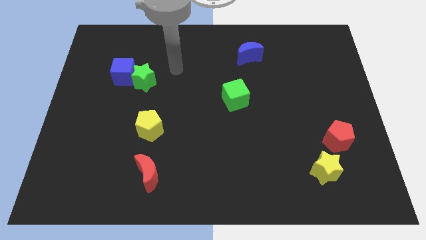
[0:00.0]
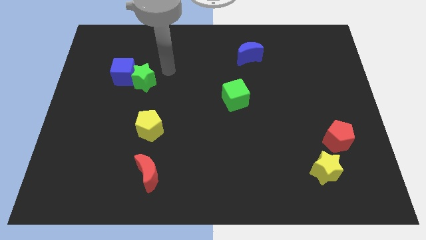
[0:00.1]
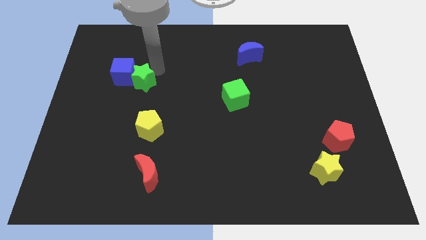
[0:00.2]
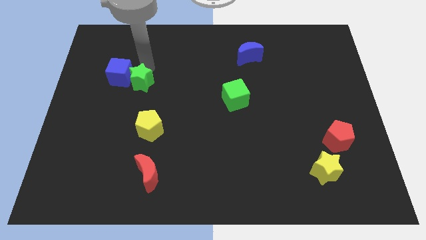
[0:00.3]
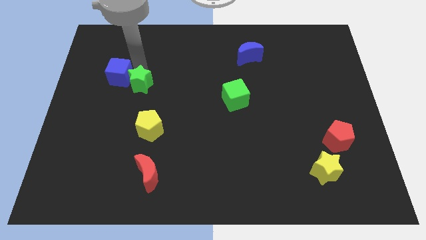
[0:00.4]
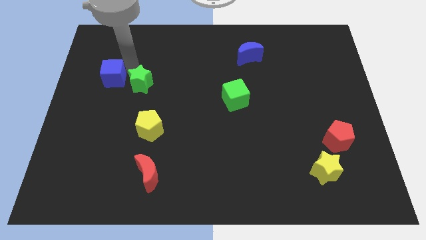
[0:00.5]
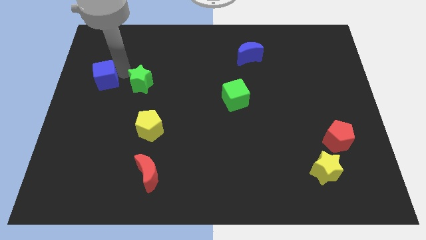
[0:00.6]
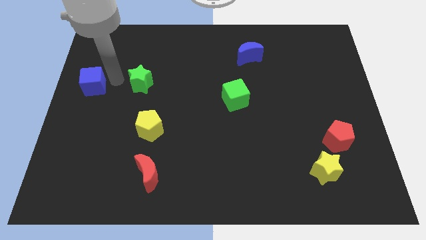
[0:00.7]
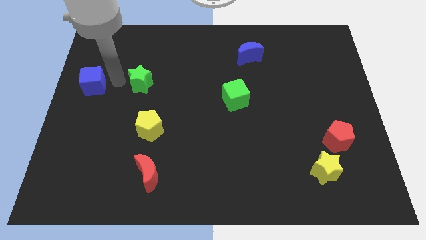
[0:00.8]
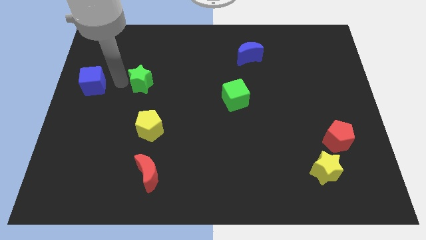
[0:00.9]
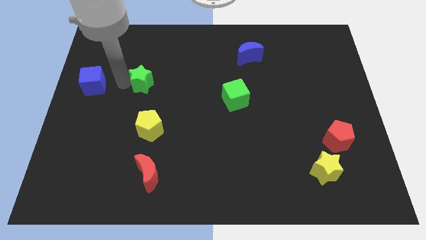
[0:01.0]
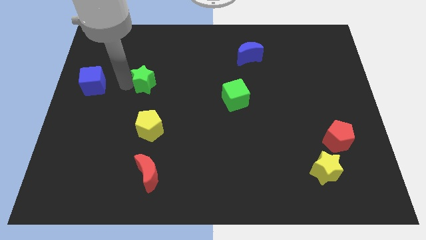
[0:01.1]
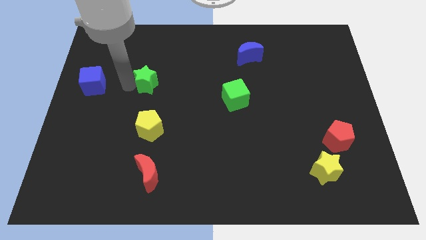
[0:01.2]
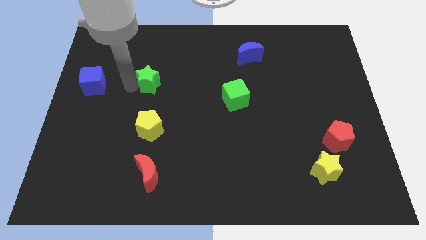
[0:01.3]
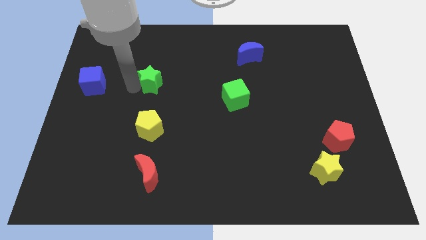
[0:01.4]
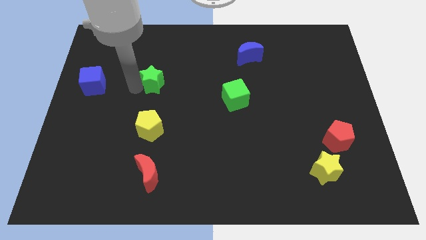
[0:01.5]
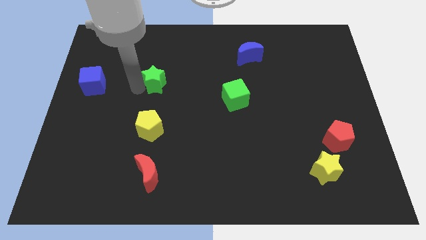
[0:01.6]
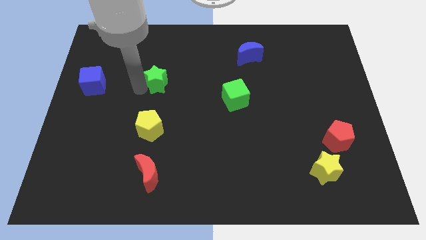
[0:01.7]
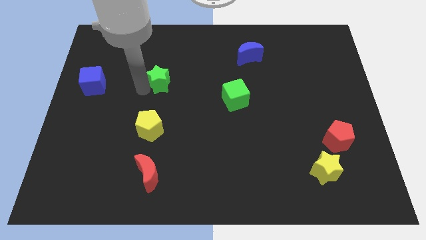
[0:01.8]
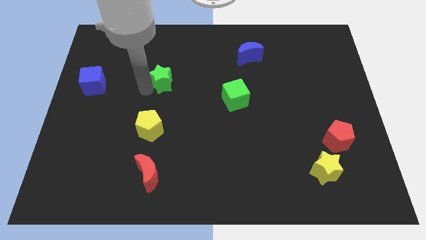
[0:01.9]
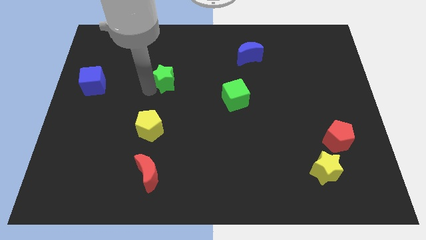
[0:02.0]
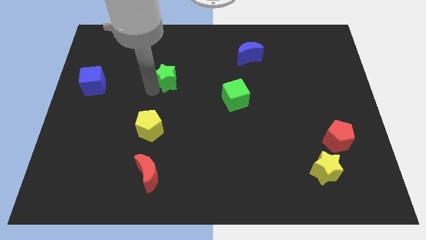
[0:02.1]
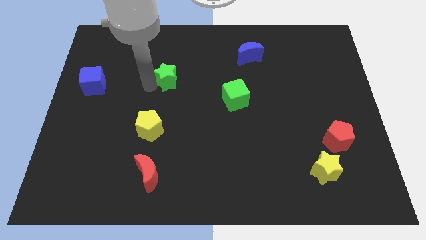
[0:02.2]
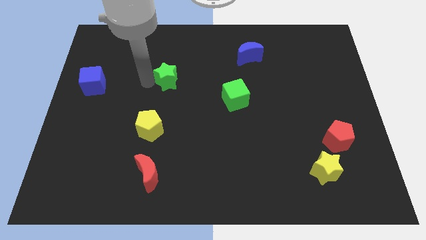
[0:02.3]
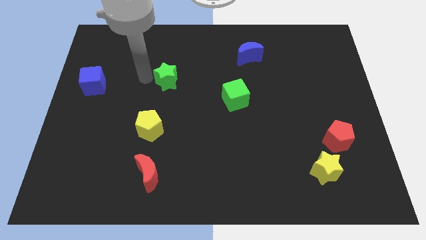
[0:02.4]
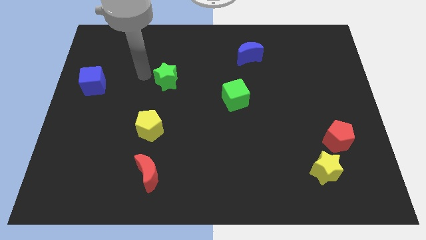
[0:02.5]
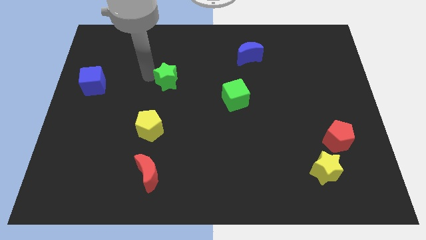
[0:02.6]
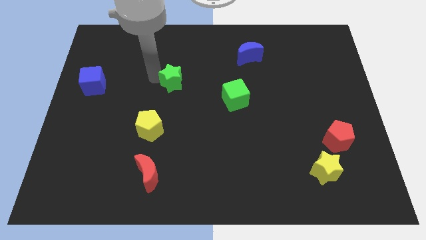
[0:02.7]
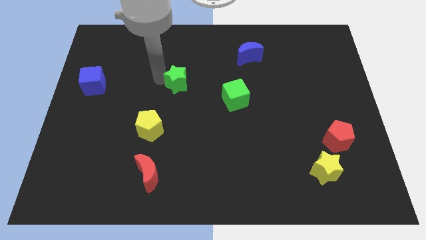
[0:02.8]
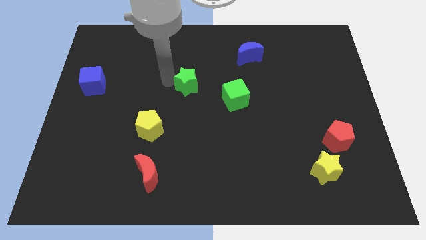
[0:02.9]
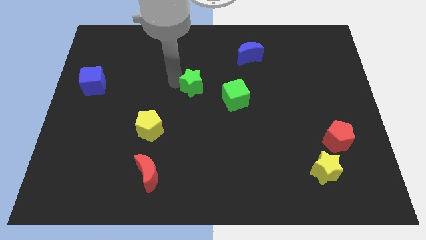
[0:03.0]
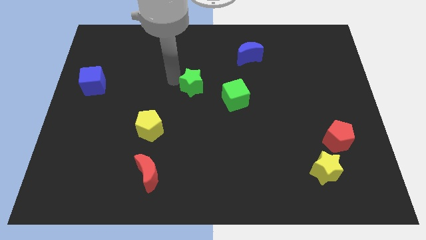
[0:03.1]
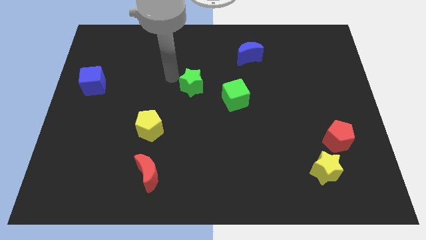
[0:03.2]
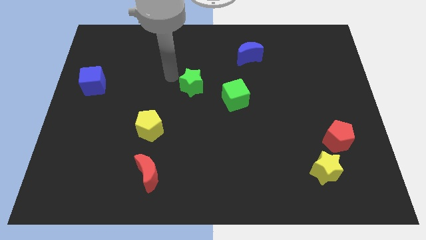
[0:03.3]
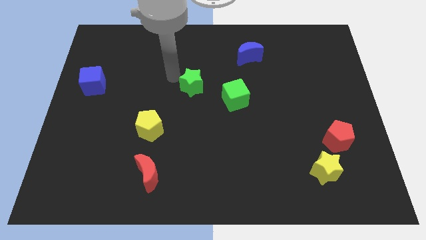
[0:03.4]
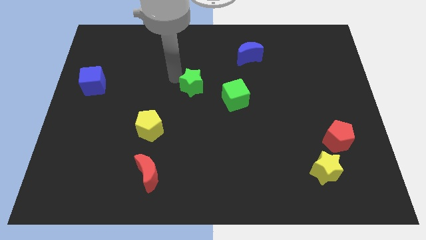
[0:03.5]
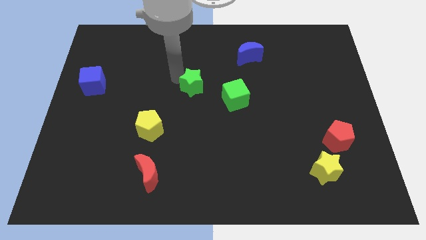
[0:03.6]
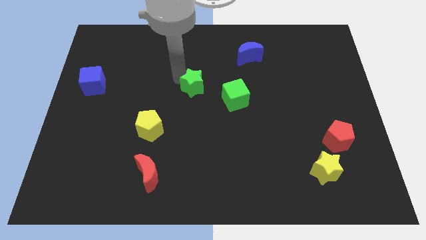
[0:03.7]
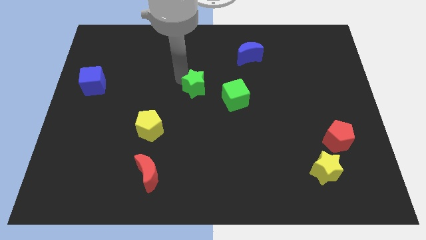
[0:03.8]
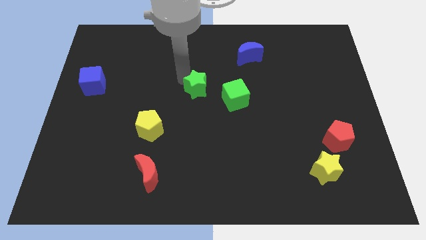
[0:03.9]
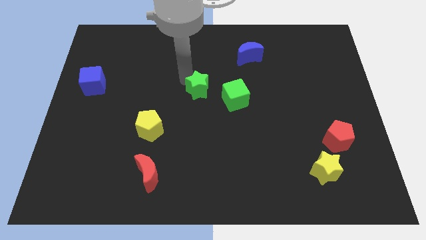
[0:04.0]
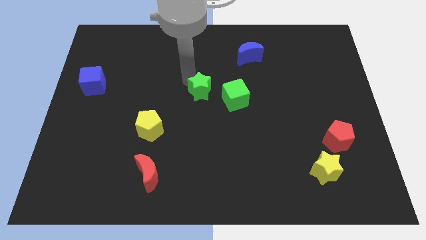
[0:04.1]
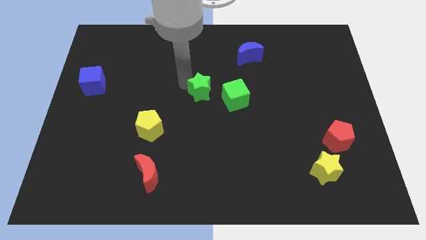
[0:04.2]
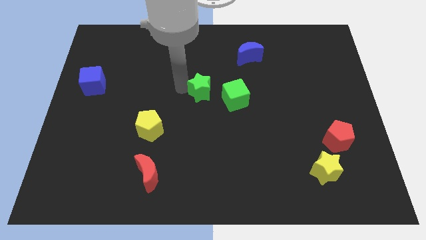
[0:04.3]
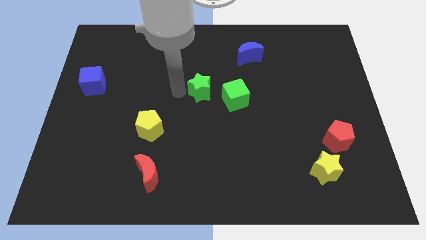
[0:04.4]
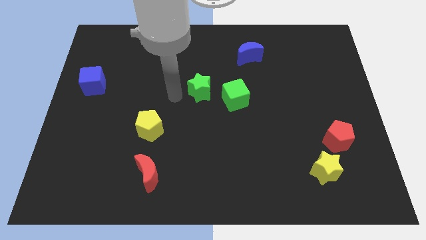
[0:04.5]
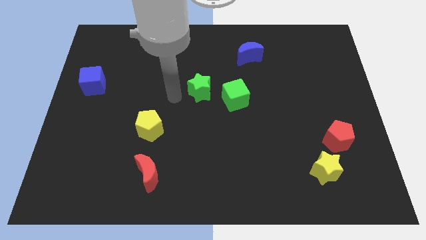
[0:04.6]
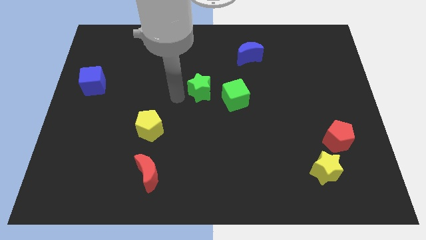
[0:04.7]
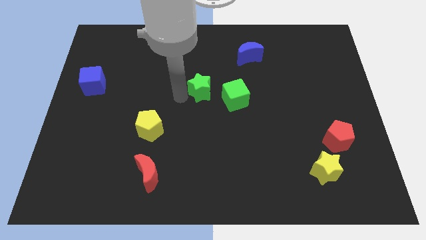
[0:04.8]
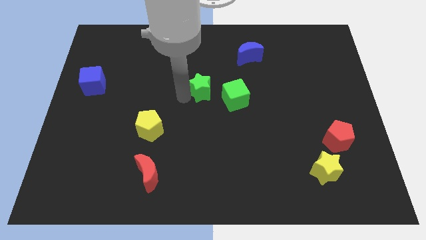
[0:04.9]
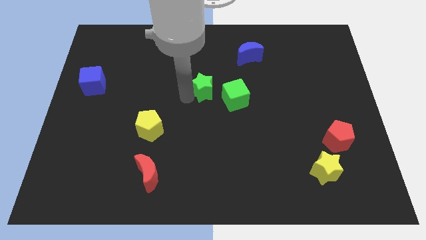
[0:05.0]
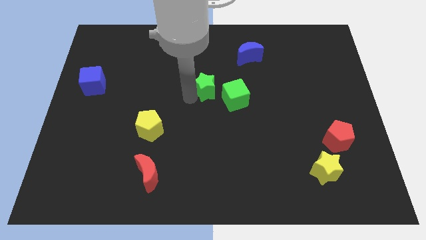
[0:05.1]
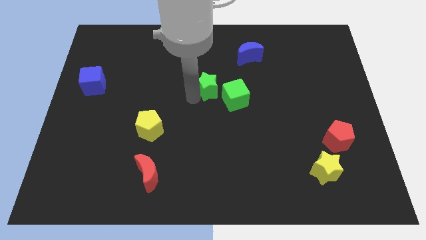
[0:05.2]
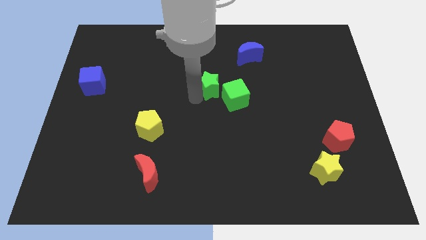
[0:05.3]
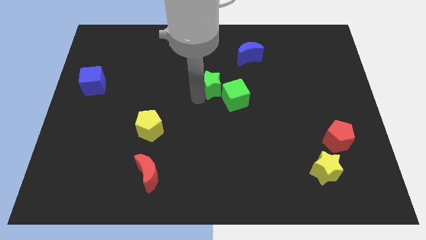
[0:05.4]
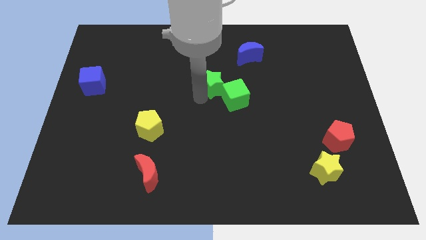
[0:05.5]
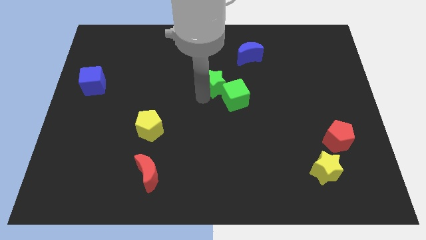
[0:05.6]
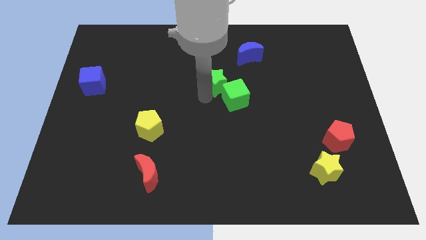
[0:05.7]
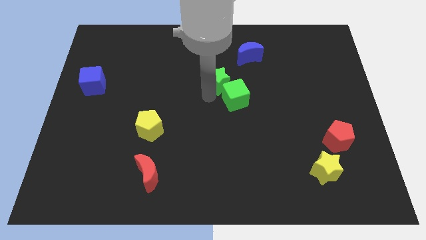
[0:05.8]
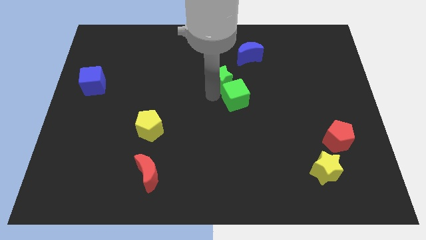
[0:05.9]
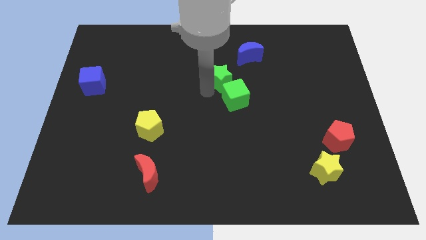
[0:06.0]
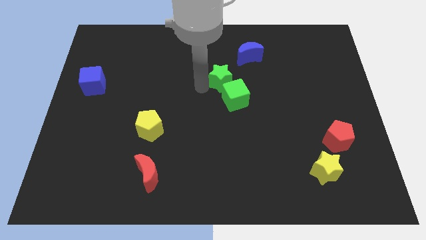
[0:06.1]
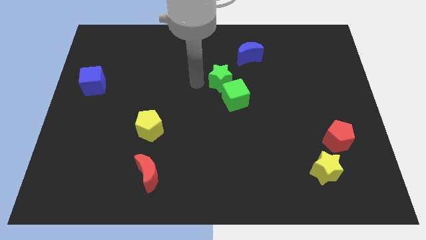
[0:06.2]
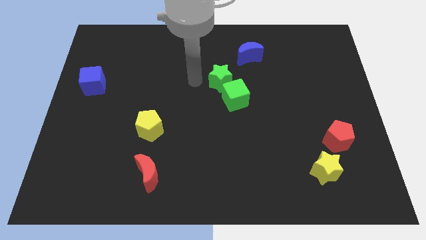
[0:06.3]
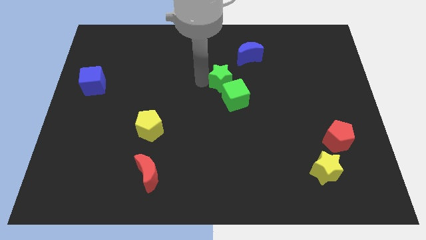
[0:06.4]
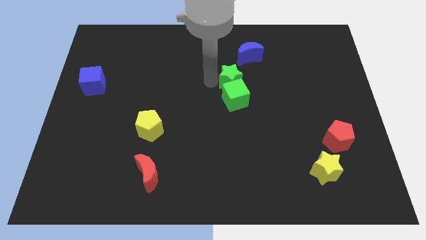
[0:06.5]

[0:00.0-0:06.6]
push the green star to the right

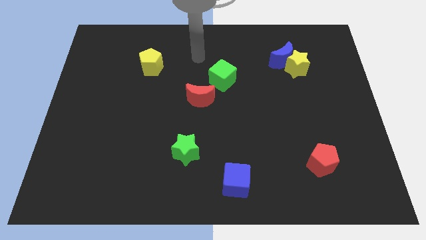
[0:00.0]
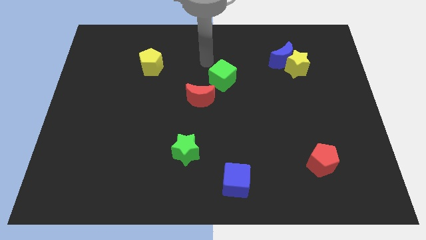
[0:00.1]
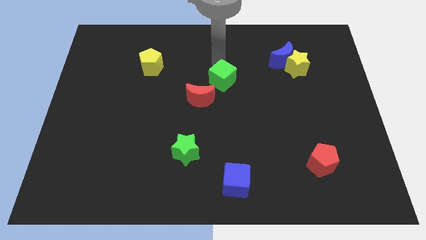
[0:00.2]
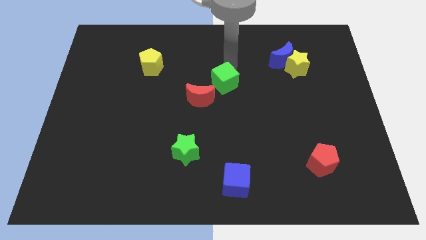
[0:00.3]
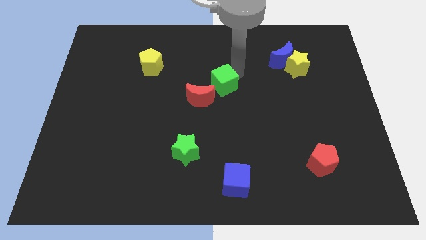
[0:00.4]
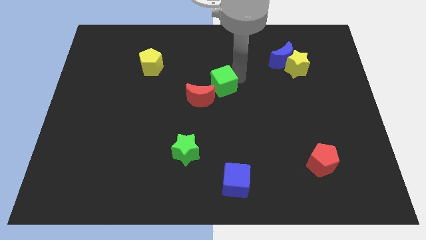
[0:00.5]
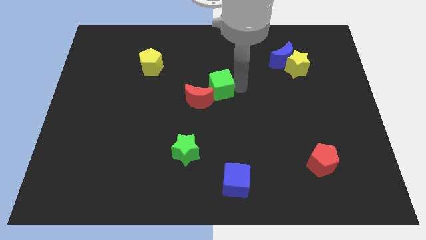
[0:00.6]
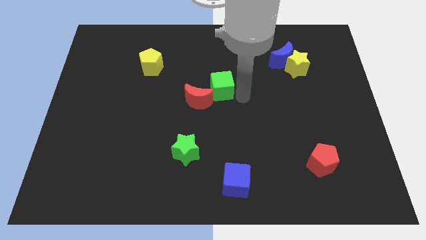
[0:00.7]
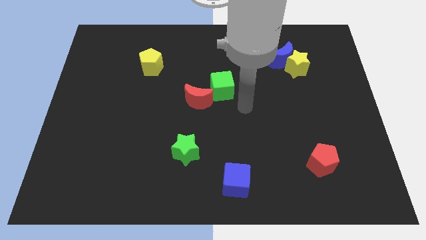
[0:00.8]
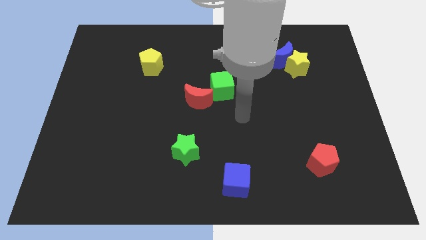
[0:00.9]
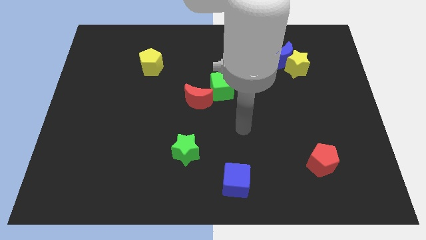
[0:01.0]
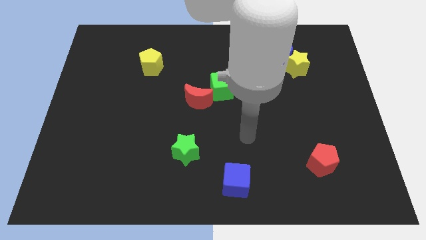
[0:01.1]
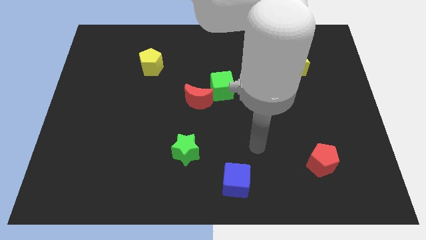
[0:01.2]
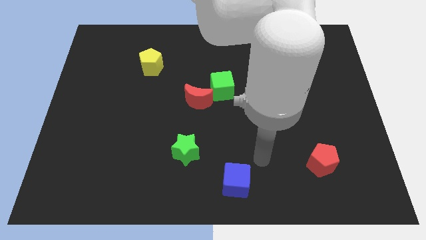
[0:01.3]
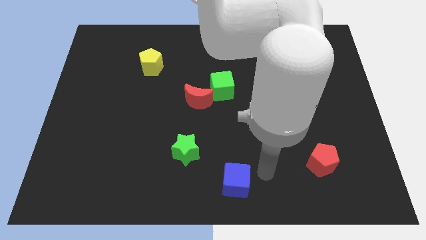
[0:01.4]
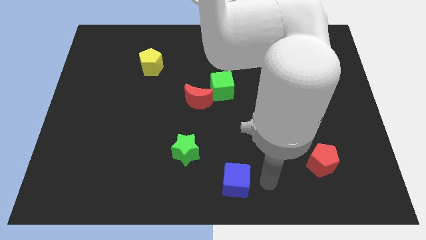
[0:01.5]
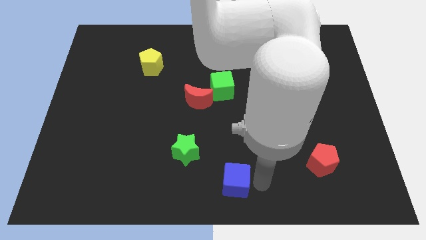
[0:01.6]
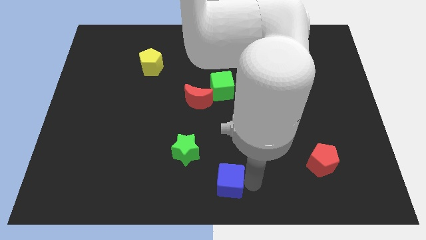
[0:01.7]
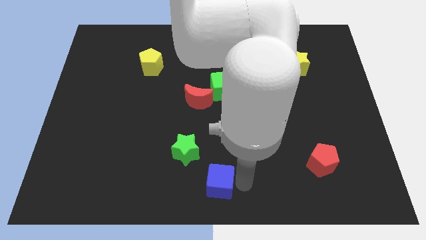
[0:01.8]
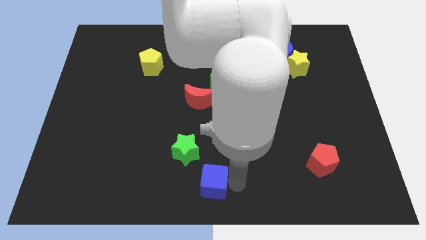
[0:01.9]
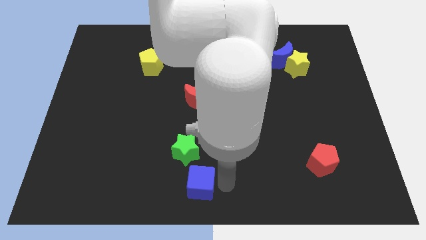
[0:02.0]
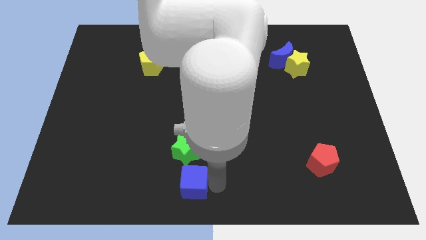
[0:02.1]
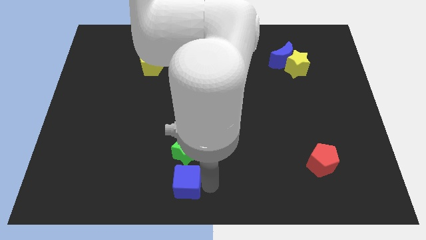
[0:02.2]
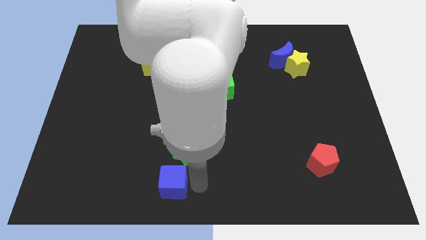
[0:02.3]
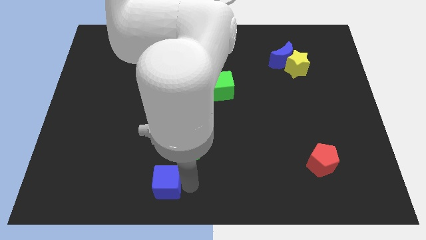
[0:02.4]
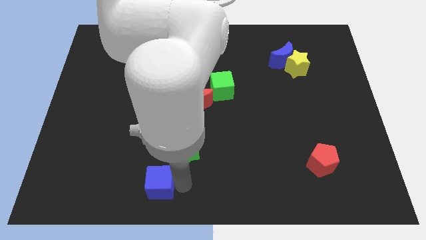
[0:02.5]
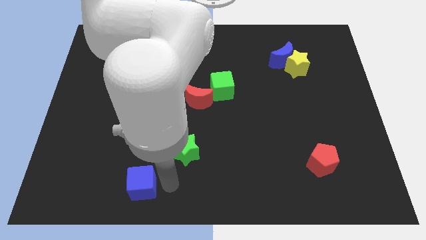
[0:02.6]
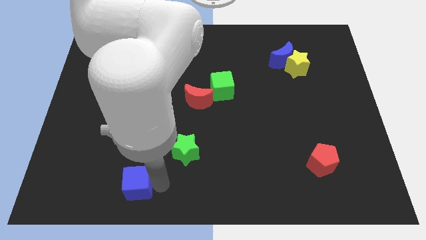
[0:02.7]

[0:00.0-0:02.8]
push the blue cube left
